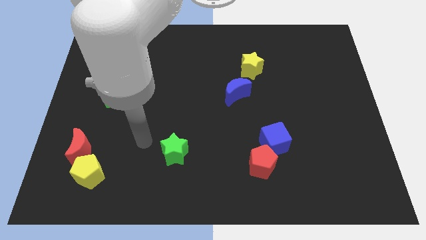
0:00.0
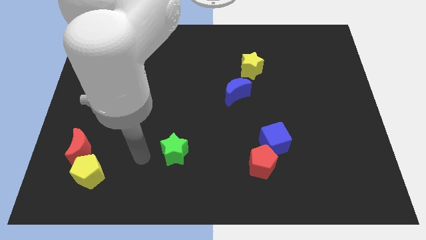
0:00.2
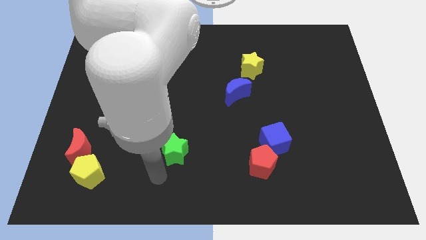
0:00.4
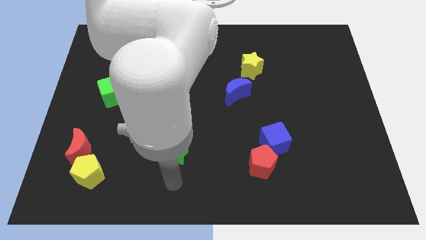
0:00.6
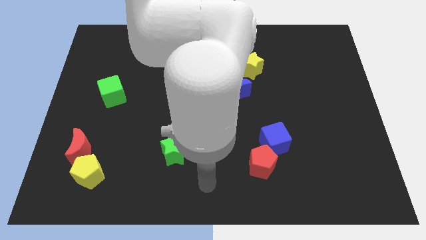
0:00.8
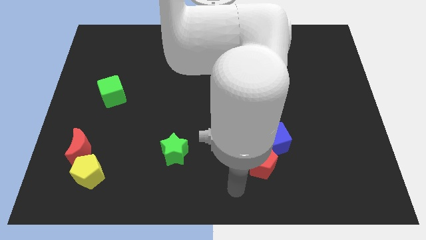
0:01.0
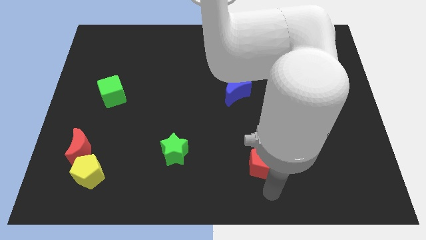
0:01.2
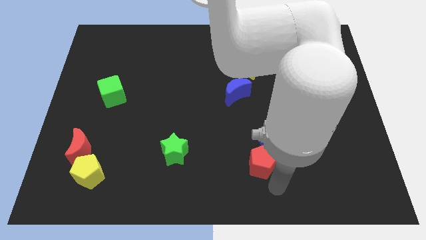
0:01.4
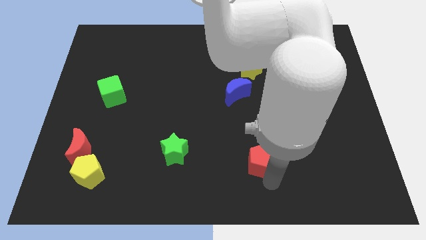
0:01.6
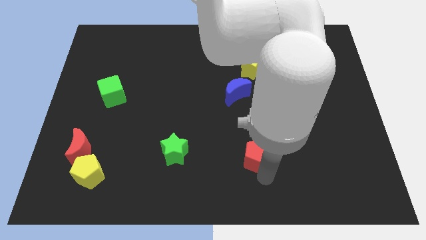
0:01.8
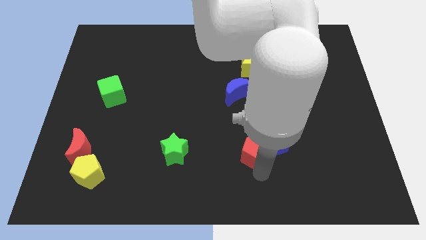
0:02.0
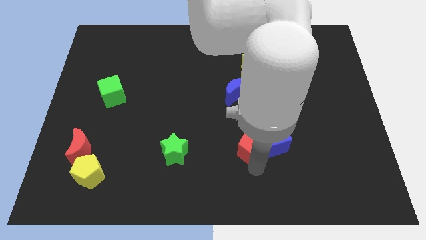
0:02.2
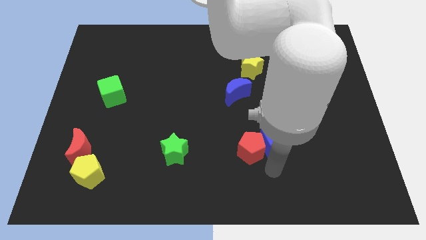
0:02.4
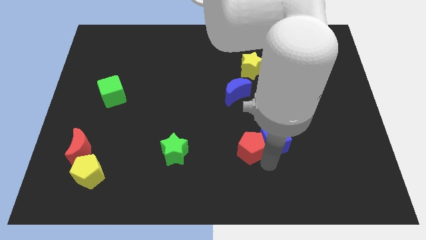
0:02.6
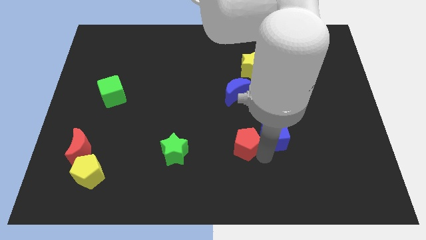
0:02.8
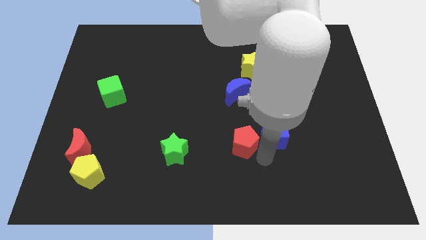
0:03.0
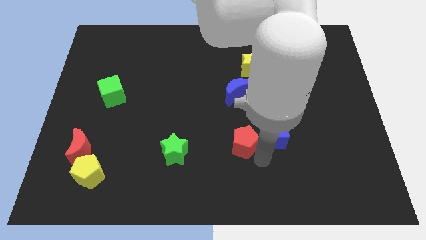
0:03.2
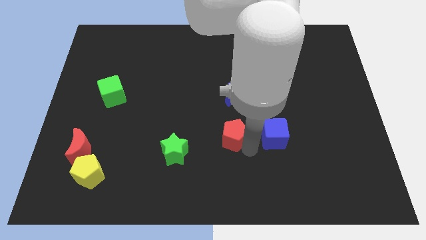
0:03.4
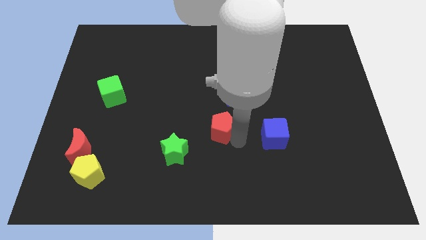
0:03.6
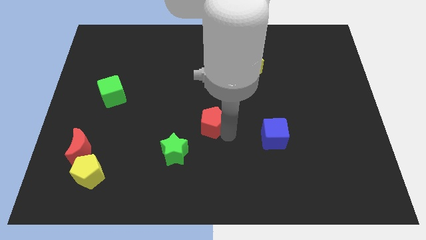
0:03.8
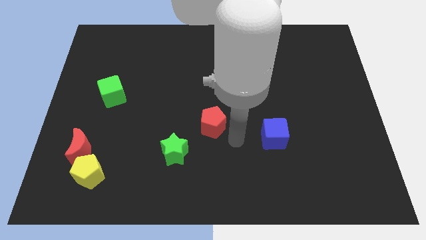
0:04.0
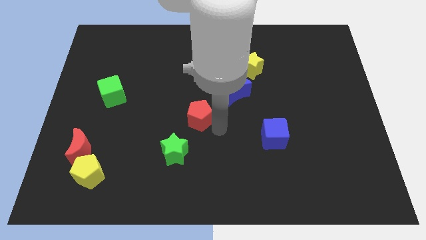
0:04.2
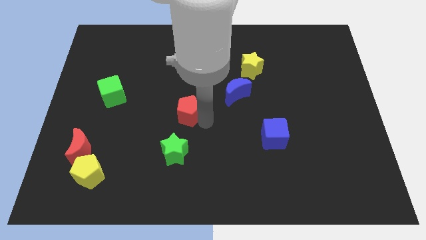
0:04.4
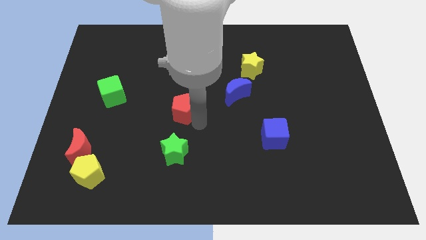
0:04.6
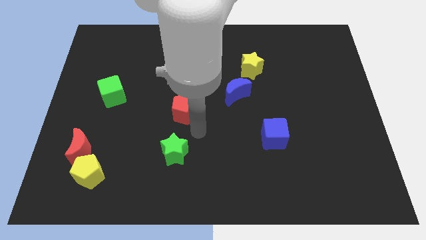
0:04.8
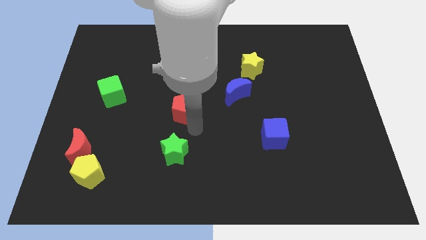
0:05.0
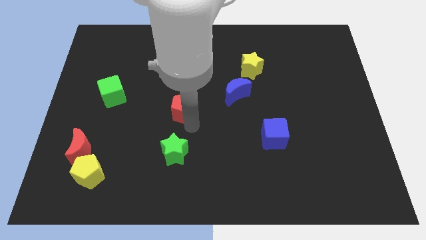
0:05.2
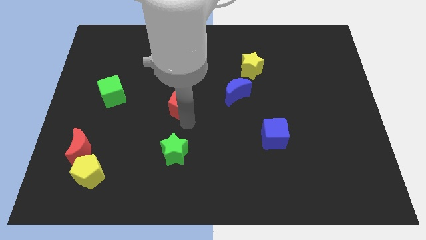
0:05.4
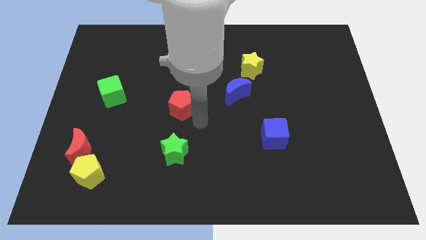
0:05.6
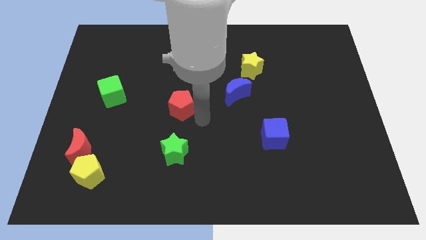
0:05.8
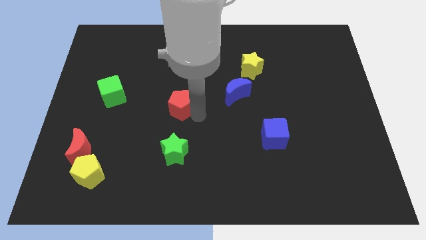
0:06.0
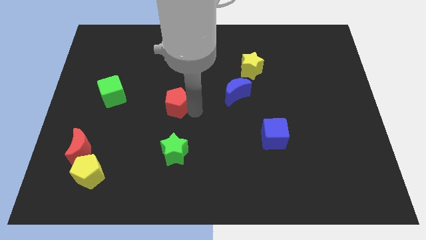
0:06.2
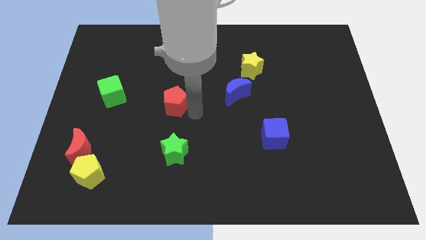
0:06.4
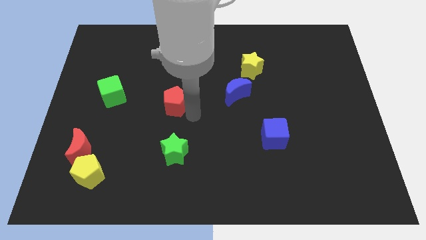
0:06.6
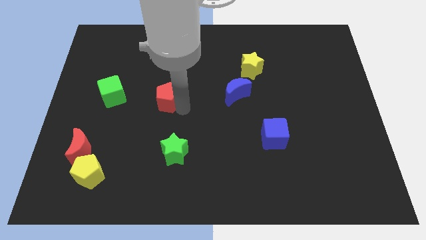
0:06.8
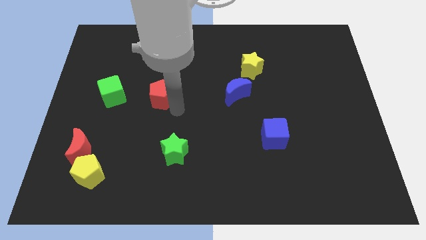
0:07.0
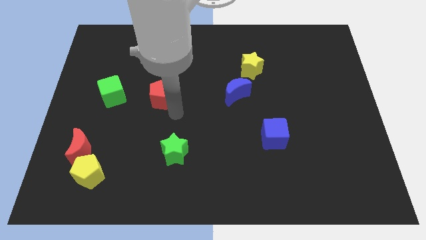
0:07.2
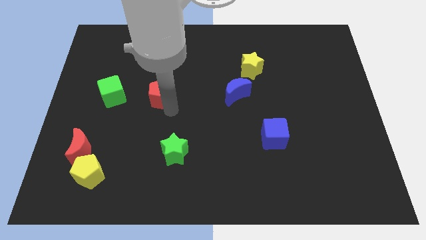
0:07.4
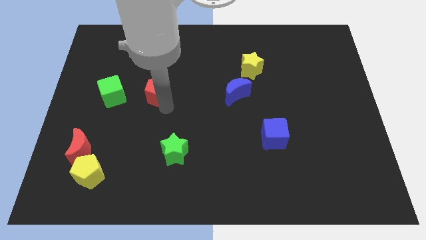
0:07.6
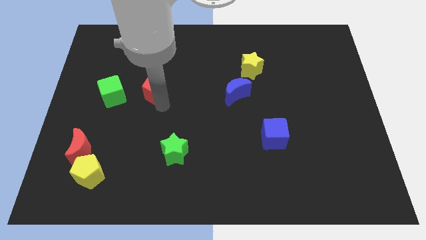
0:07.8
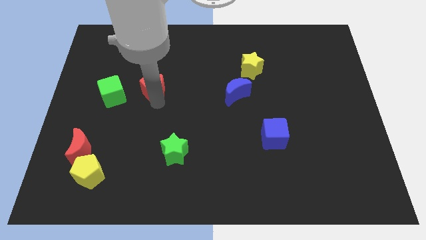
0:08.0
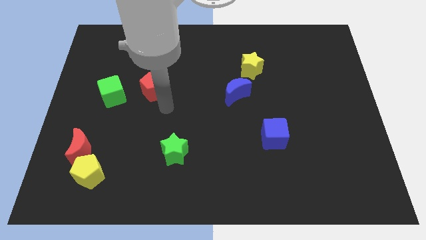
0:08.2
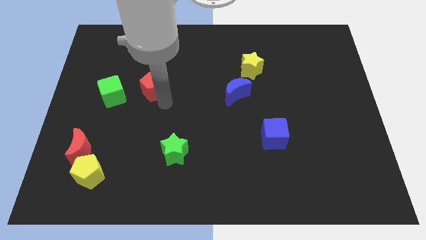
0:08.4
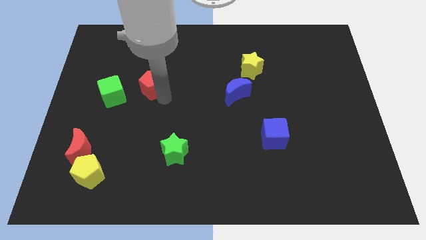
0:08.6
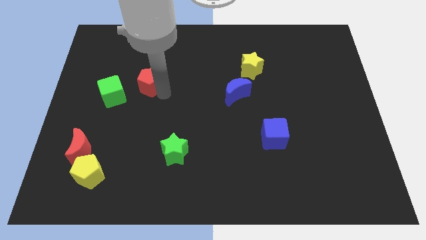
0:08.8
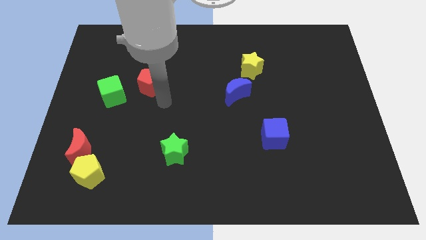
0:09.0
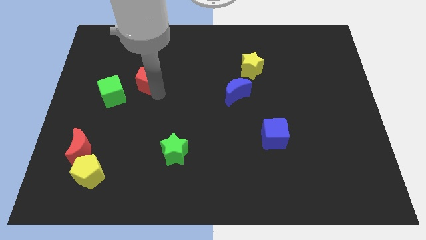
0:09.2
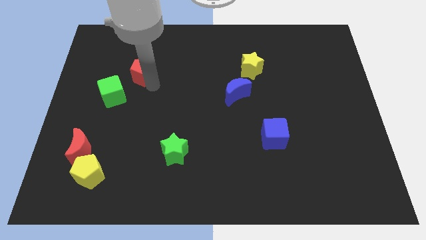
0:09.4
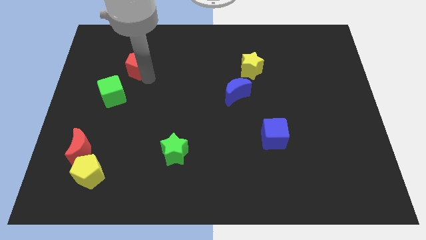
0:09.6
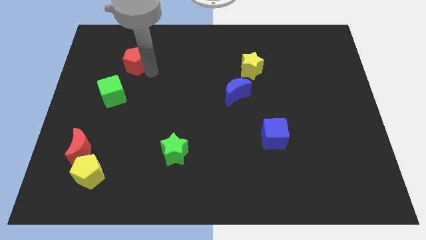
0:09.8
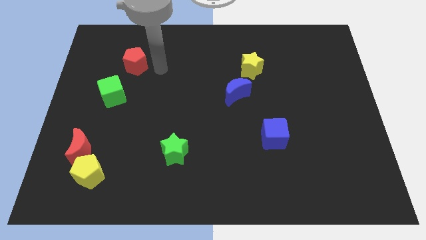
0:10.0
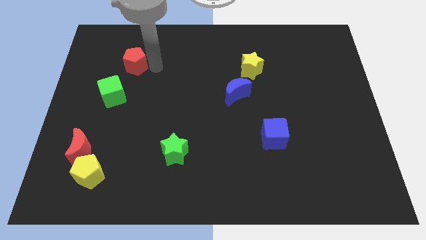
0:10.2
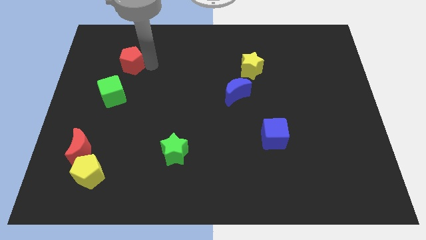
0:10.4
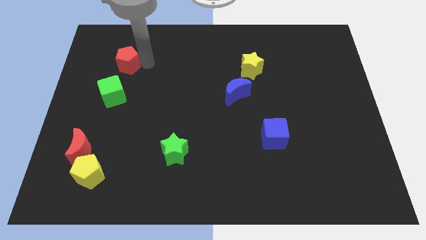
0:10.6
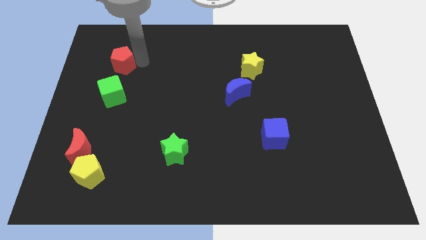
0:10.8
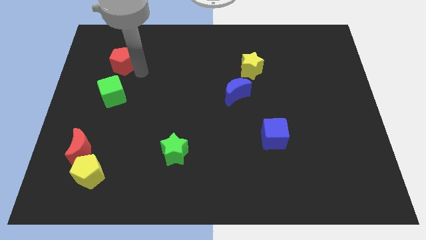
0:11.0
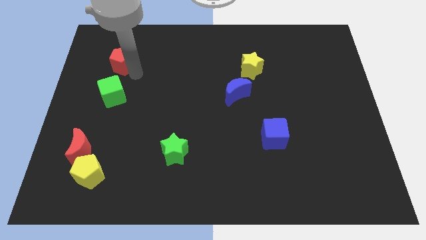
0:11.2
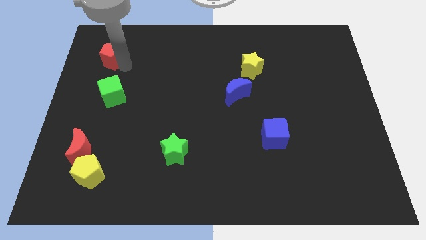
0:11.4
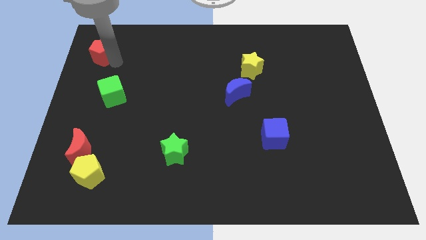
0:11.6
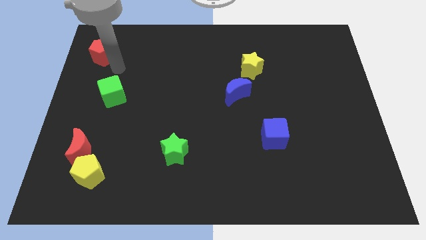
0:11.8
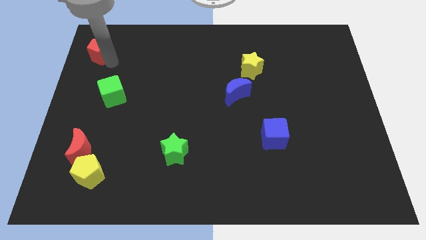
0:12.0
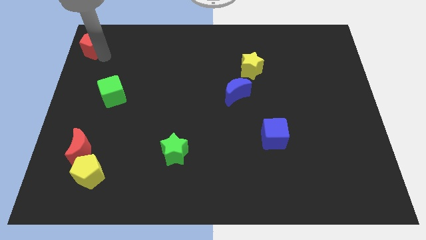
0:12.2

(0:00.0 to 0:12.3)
put the red pentagon to the top left of the board

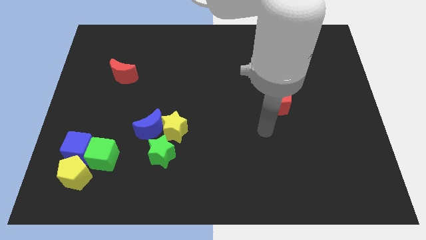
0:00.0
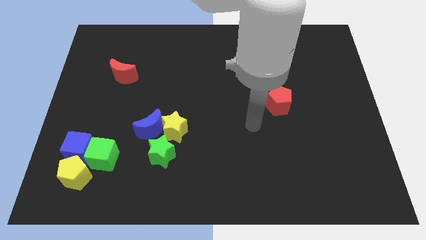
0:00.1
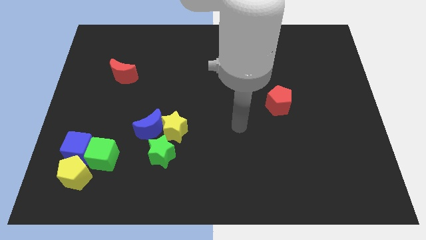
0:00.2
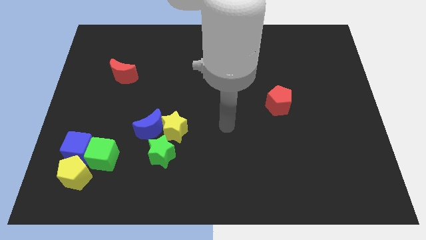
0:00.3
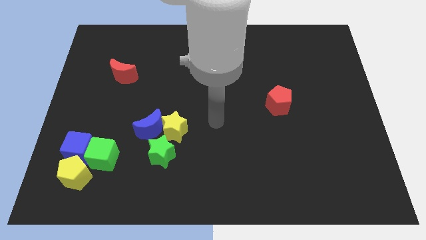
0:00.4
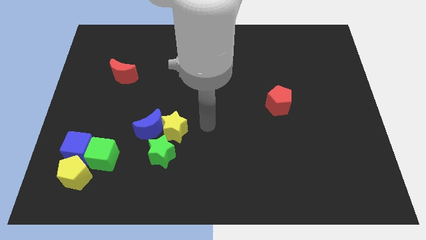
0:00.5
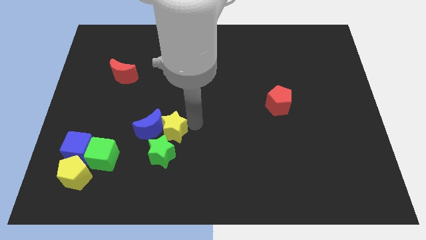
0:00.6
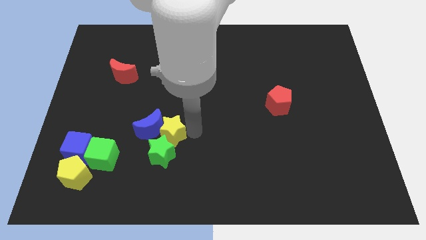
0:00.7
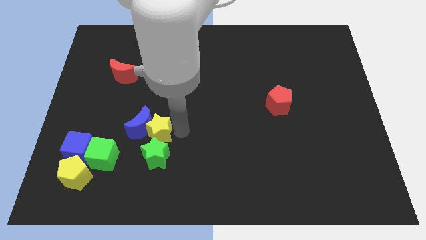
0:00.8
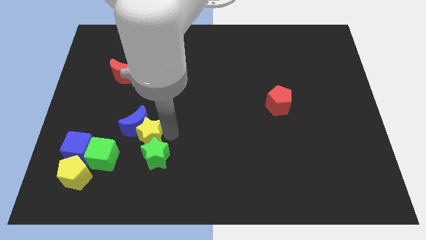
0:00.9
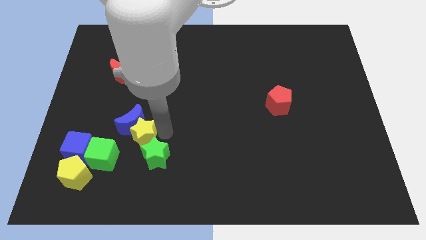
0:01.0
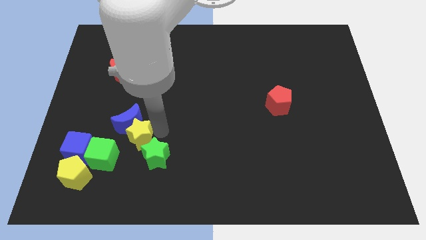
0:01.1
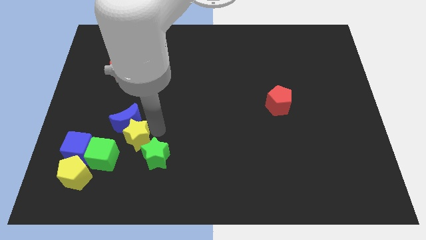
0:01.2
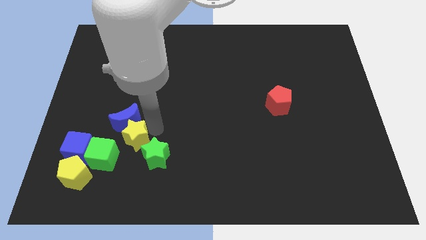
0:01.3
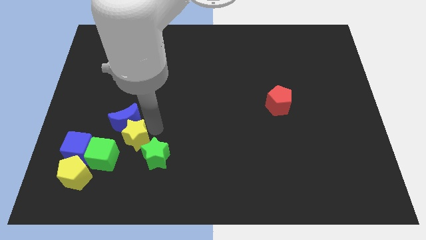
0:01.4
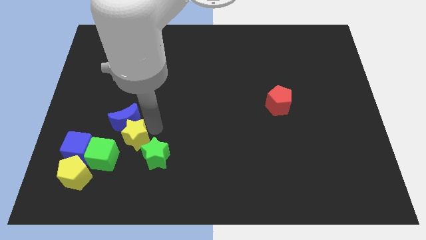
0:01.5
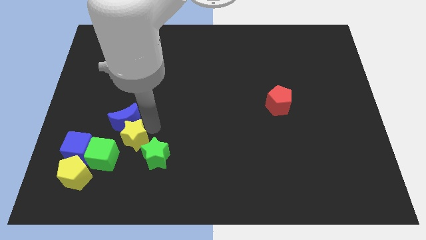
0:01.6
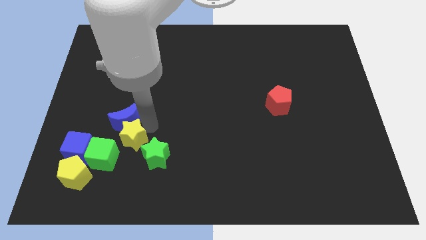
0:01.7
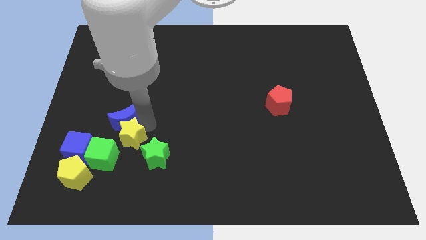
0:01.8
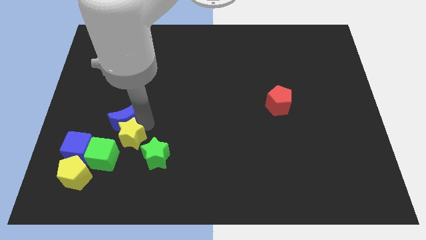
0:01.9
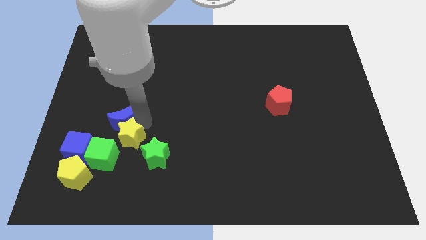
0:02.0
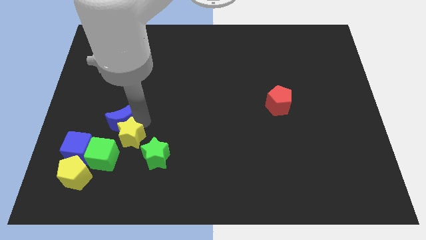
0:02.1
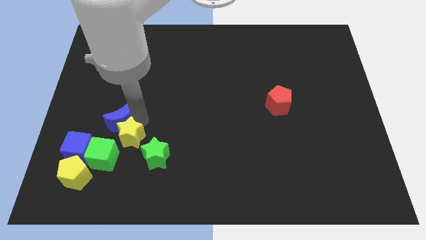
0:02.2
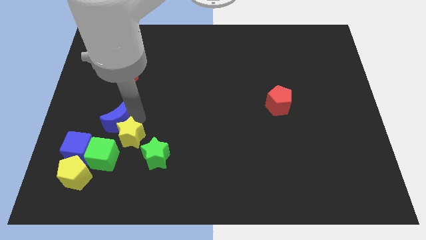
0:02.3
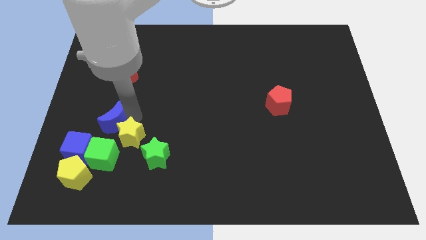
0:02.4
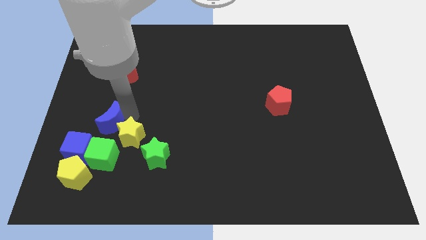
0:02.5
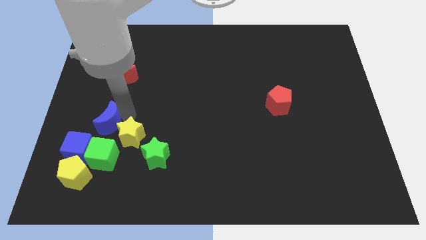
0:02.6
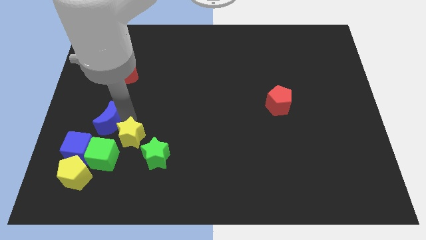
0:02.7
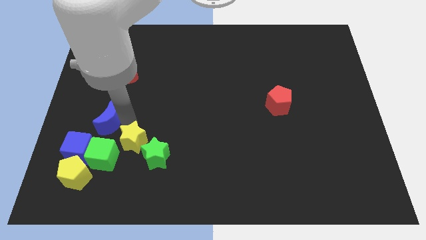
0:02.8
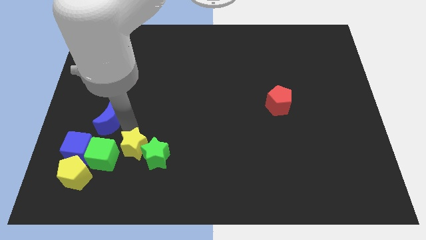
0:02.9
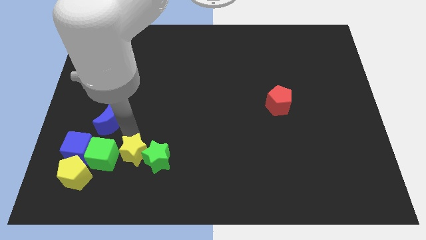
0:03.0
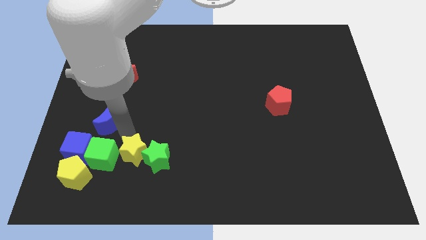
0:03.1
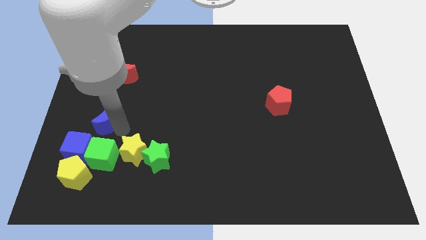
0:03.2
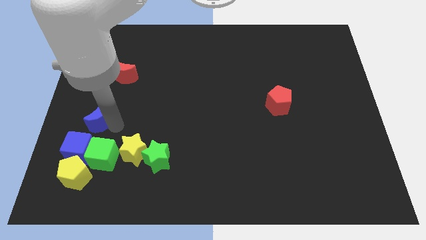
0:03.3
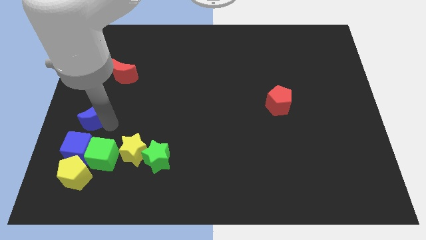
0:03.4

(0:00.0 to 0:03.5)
put the blue moon to the left side of the board
